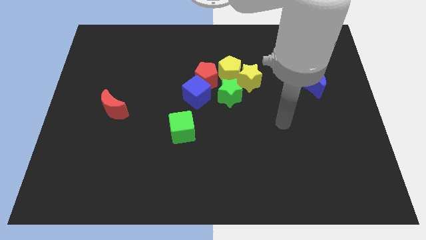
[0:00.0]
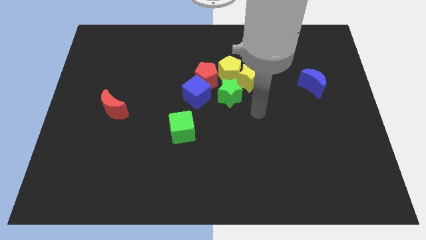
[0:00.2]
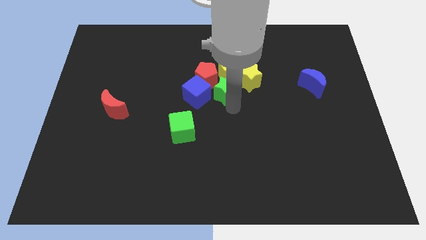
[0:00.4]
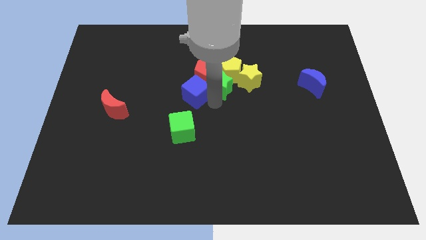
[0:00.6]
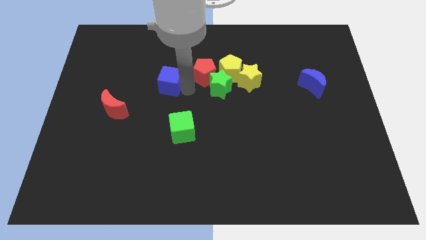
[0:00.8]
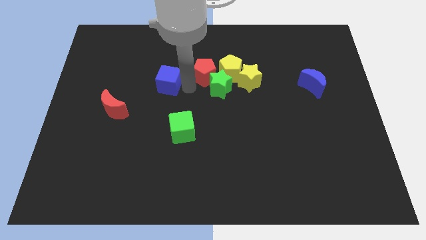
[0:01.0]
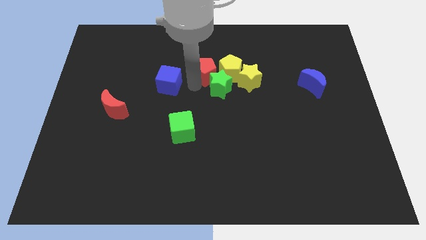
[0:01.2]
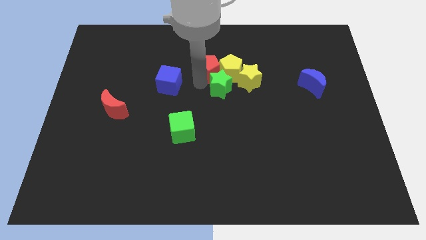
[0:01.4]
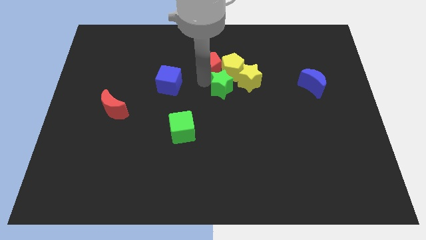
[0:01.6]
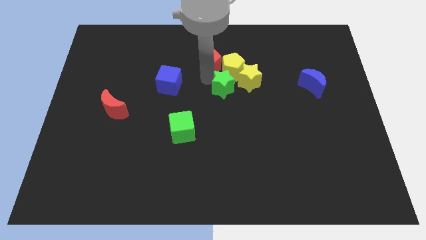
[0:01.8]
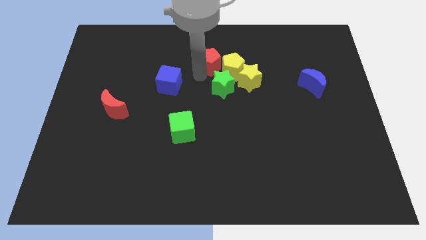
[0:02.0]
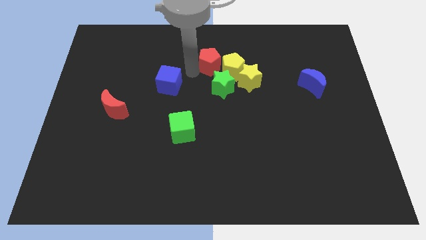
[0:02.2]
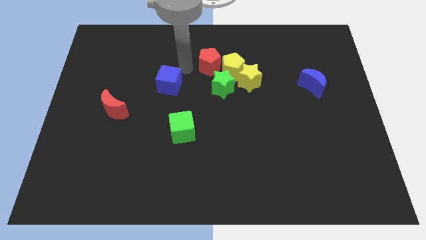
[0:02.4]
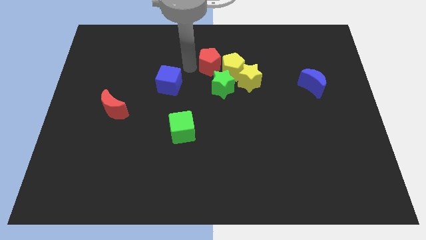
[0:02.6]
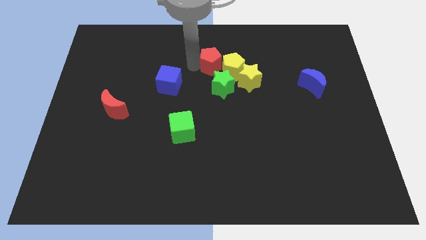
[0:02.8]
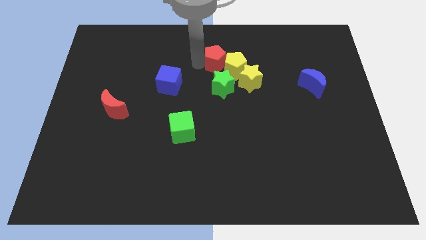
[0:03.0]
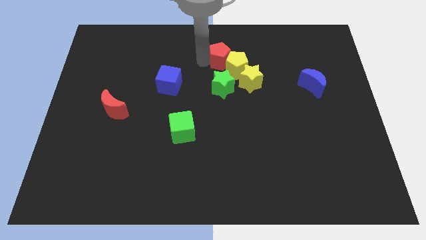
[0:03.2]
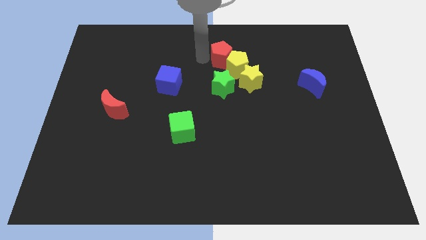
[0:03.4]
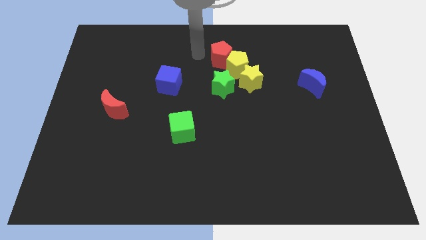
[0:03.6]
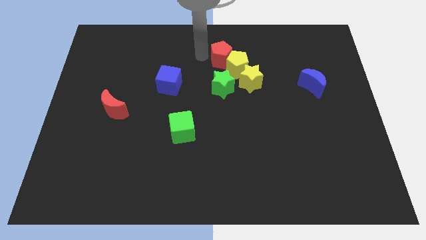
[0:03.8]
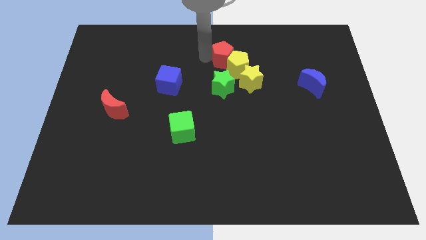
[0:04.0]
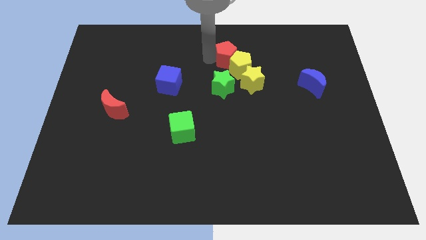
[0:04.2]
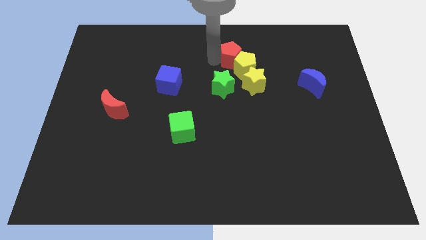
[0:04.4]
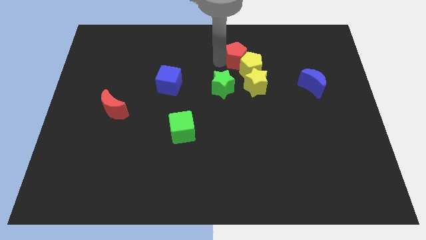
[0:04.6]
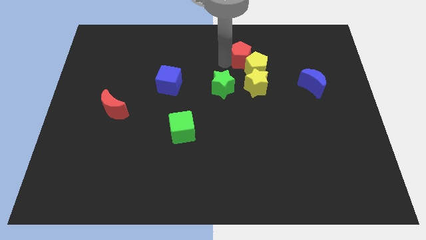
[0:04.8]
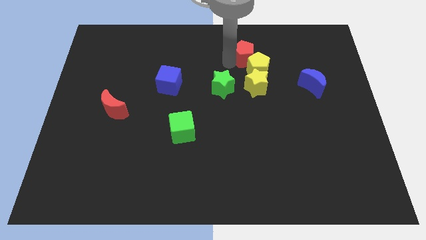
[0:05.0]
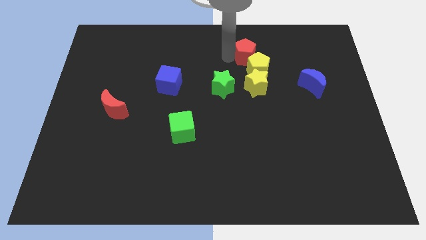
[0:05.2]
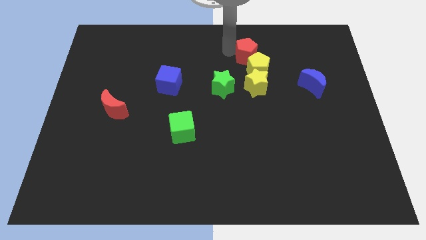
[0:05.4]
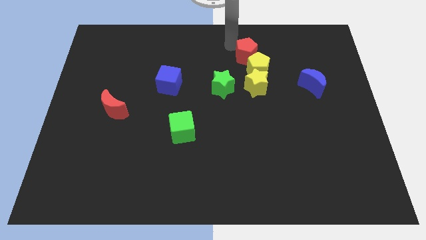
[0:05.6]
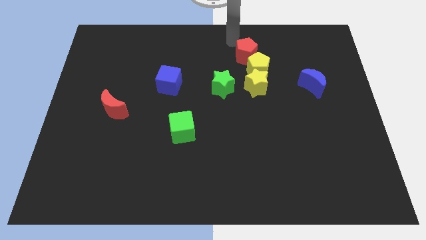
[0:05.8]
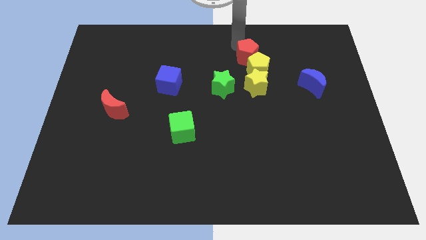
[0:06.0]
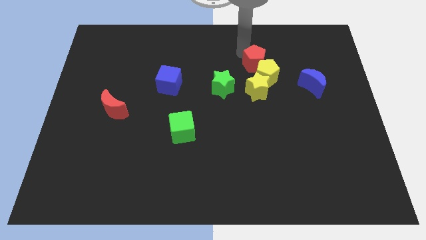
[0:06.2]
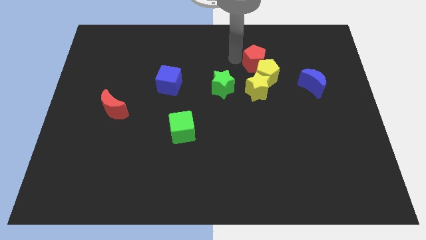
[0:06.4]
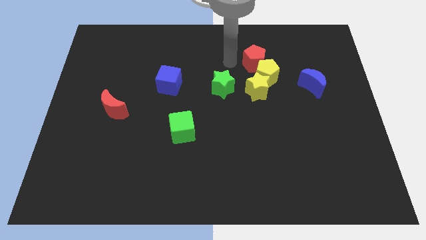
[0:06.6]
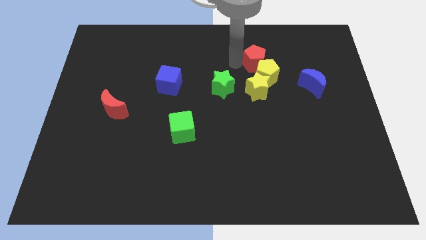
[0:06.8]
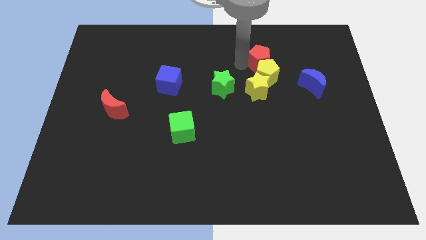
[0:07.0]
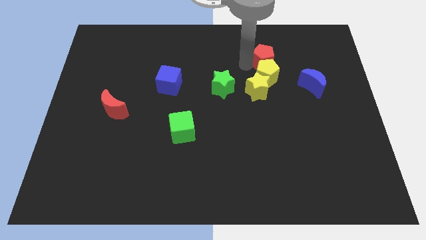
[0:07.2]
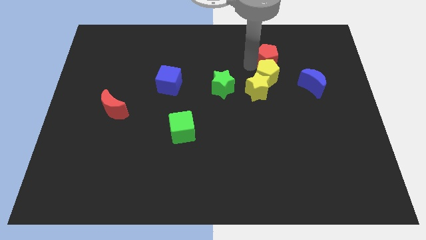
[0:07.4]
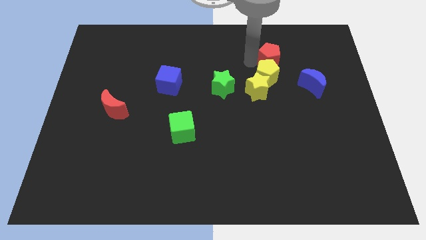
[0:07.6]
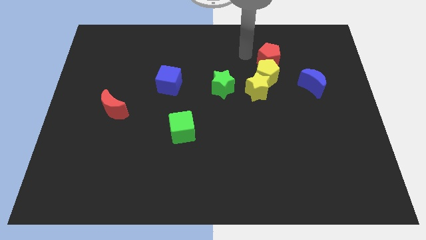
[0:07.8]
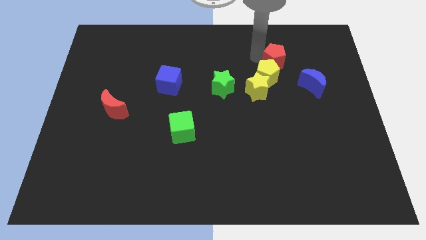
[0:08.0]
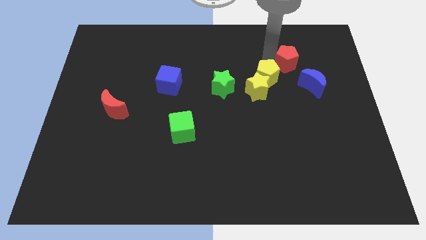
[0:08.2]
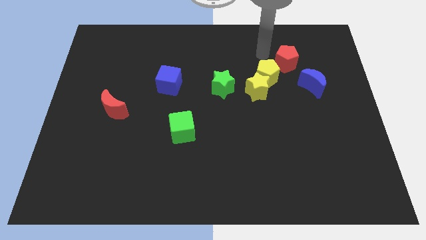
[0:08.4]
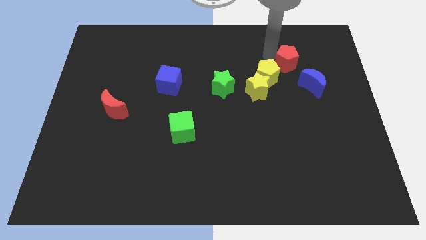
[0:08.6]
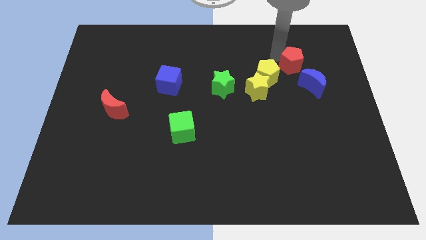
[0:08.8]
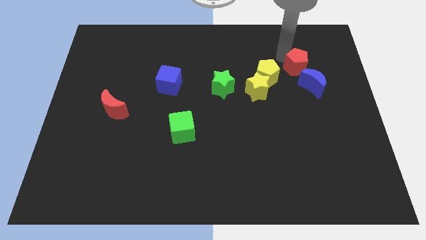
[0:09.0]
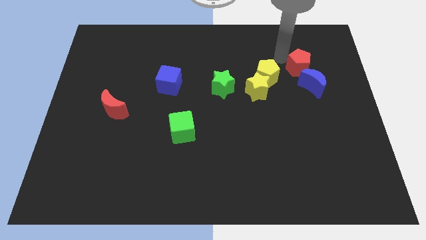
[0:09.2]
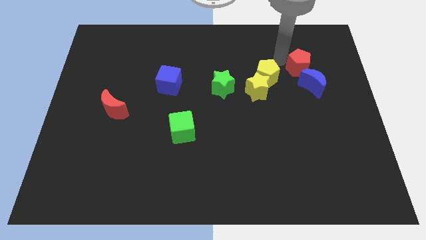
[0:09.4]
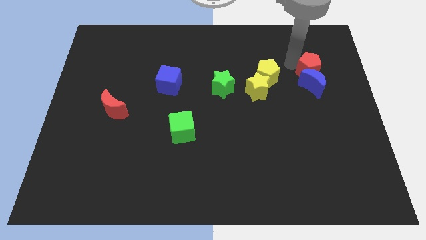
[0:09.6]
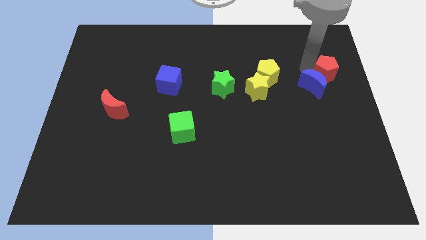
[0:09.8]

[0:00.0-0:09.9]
put the red pentagon to the center right

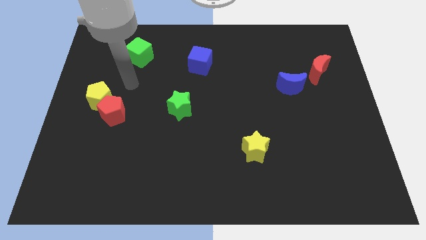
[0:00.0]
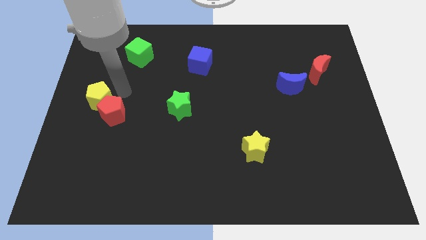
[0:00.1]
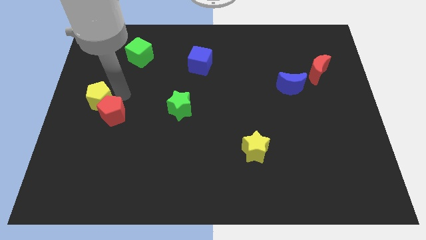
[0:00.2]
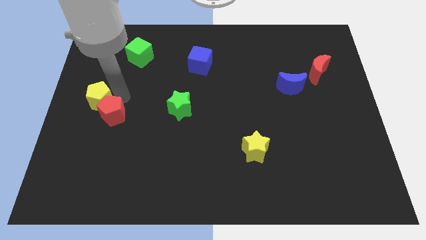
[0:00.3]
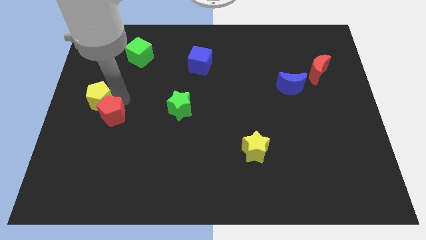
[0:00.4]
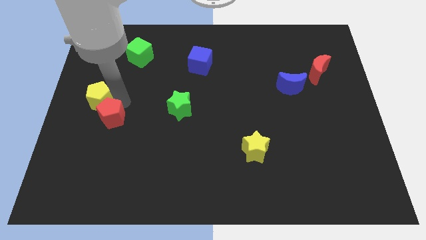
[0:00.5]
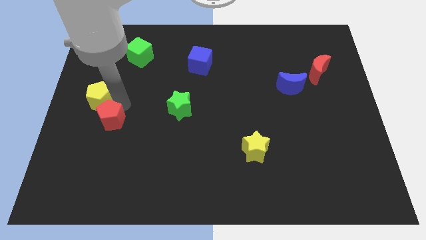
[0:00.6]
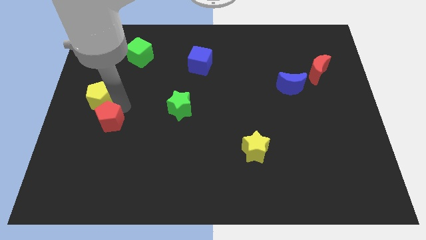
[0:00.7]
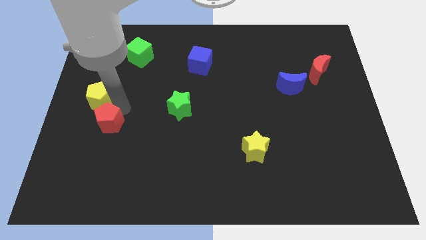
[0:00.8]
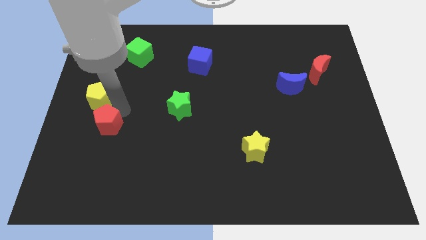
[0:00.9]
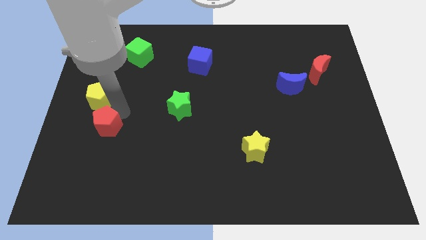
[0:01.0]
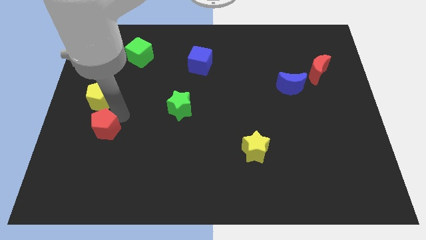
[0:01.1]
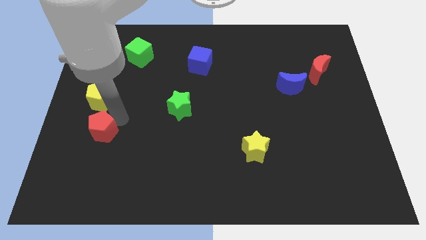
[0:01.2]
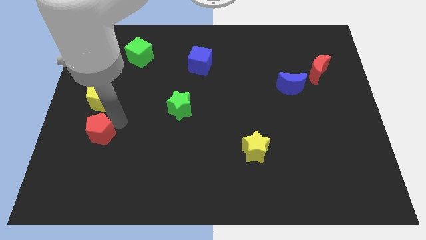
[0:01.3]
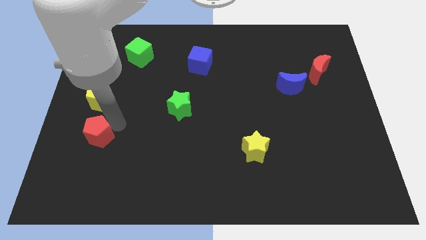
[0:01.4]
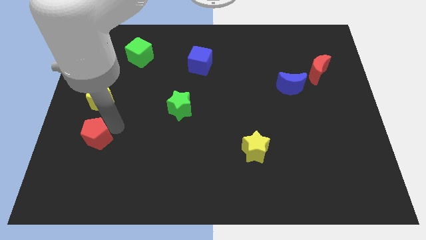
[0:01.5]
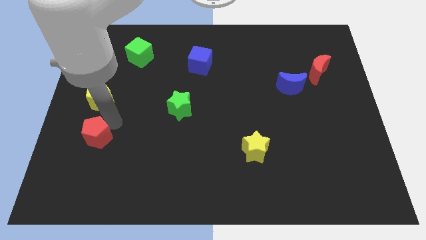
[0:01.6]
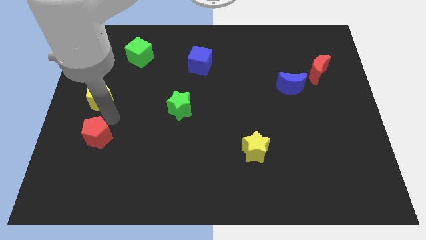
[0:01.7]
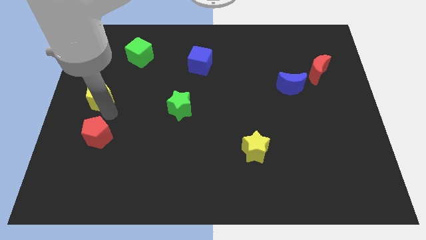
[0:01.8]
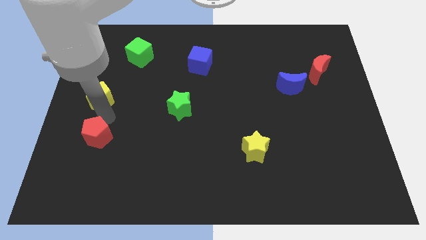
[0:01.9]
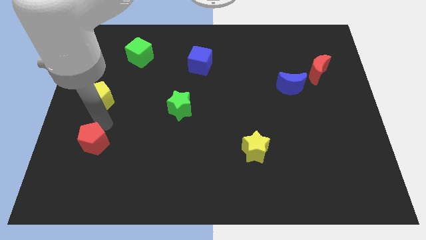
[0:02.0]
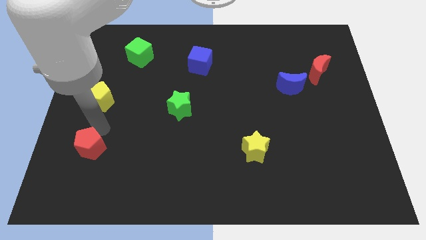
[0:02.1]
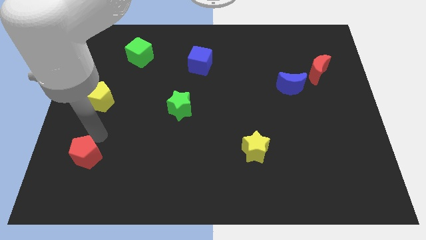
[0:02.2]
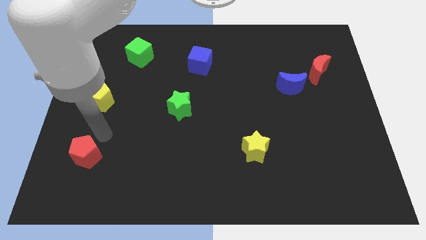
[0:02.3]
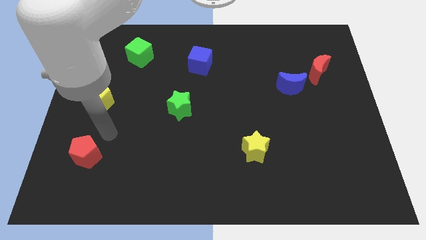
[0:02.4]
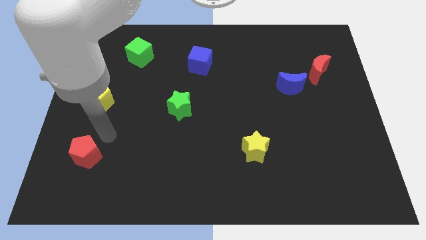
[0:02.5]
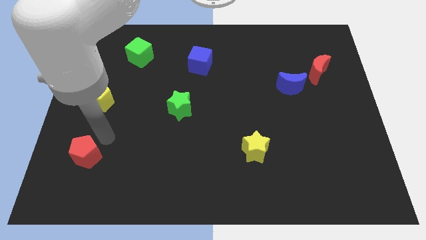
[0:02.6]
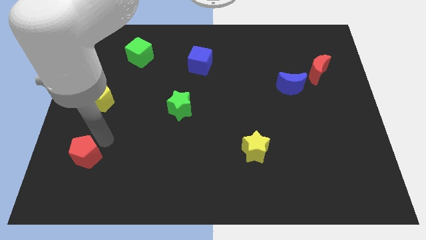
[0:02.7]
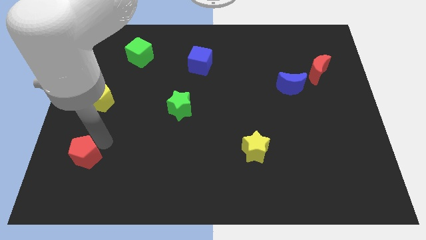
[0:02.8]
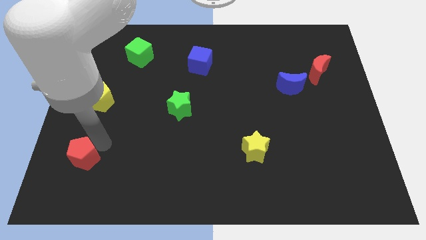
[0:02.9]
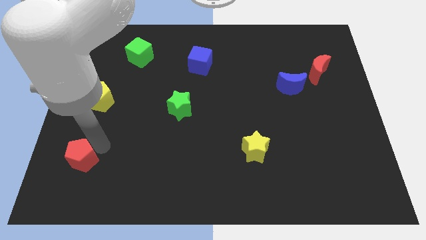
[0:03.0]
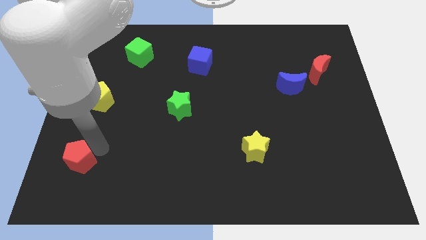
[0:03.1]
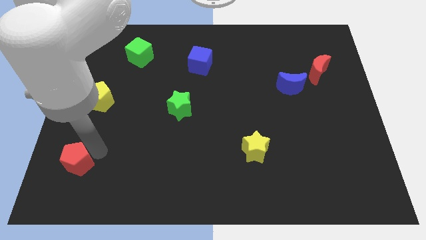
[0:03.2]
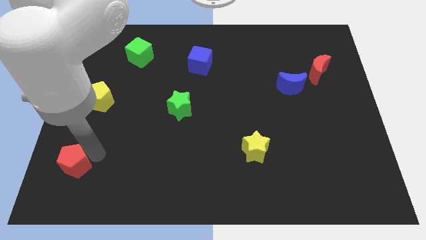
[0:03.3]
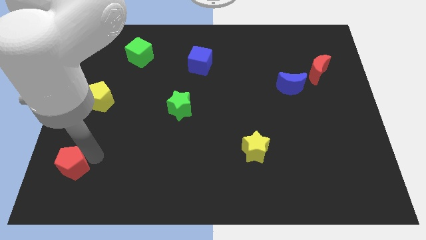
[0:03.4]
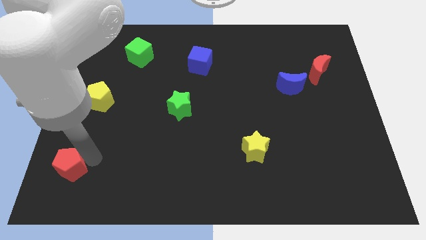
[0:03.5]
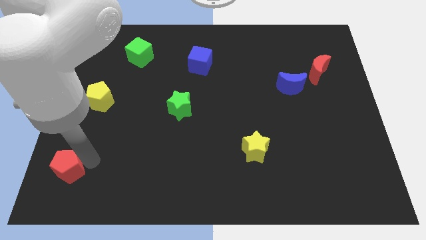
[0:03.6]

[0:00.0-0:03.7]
slide the red pentagon to the bottom left of the board
